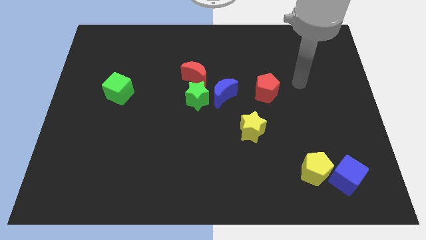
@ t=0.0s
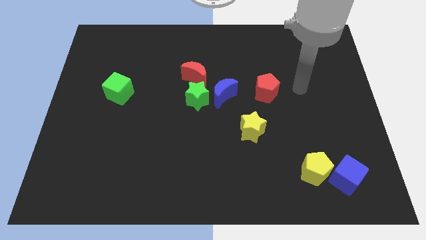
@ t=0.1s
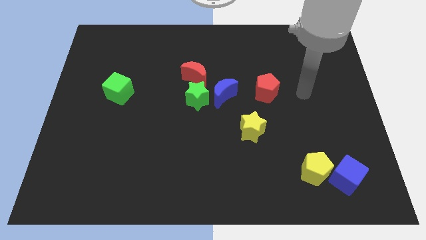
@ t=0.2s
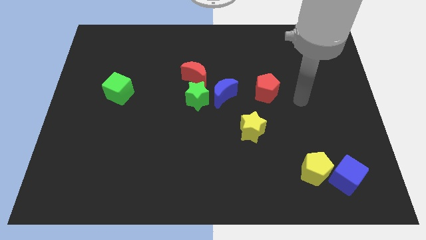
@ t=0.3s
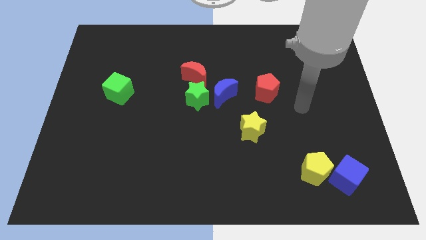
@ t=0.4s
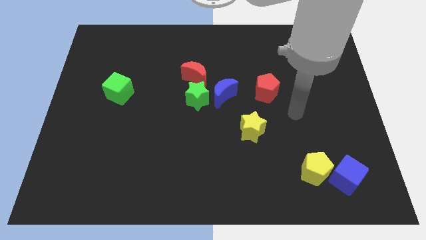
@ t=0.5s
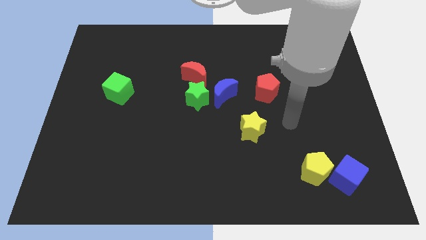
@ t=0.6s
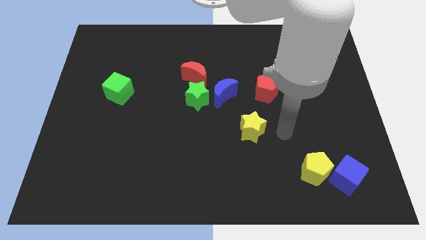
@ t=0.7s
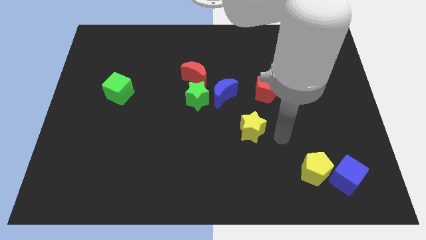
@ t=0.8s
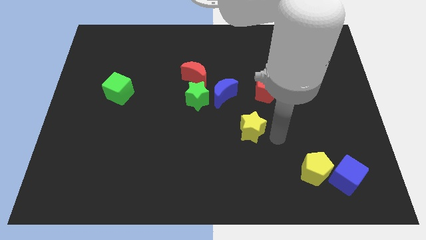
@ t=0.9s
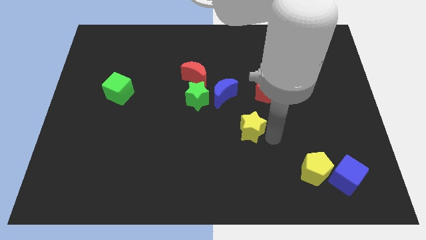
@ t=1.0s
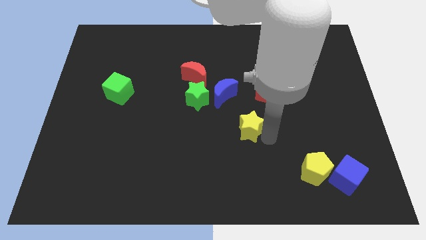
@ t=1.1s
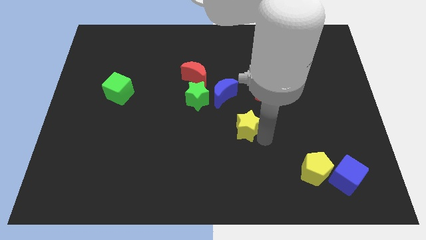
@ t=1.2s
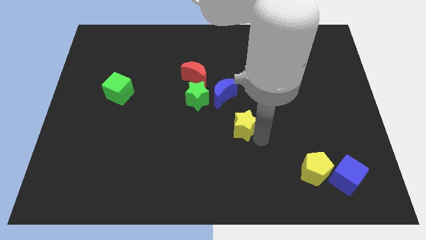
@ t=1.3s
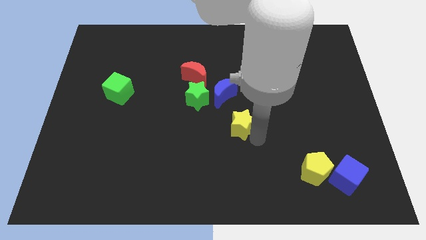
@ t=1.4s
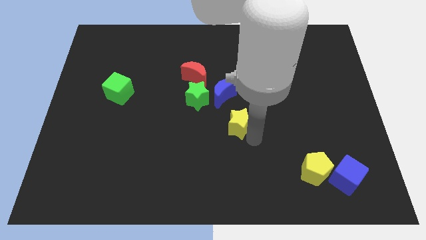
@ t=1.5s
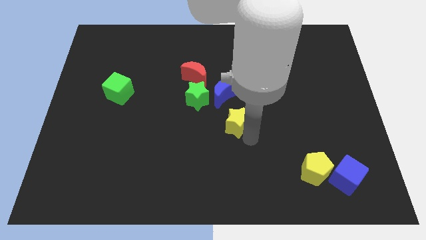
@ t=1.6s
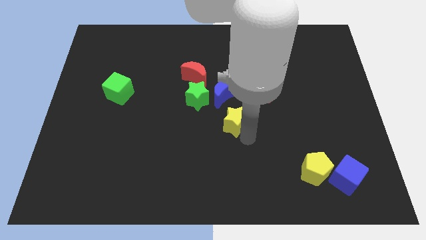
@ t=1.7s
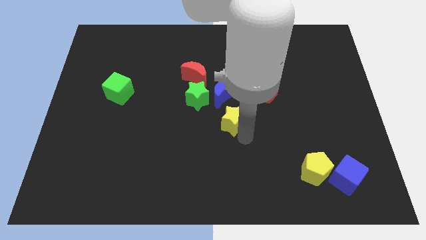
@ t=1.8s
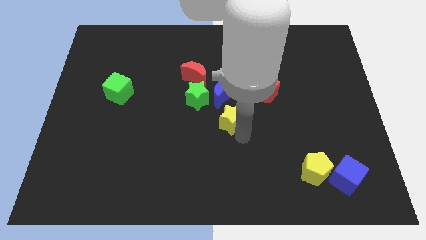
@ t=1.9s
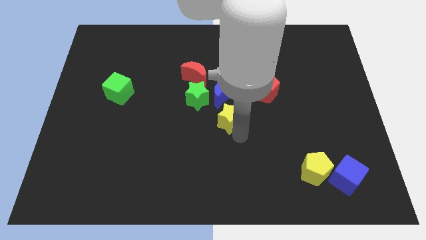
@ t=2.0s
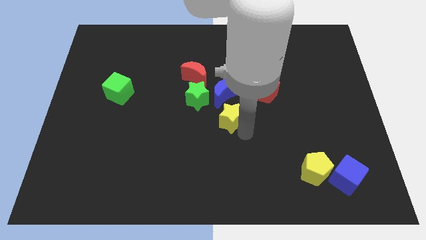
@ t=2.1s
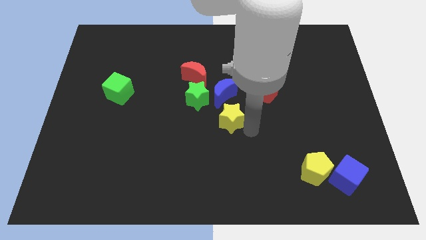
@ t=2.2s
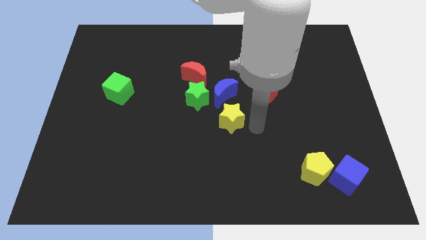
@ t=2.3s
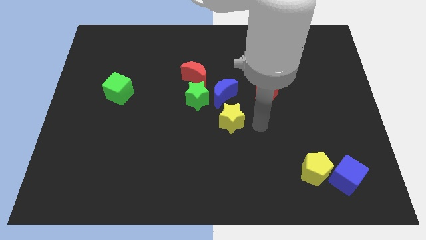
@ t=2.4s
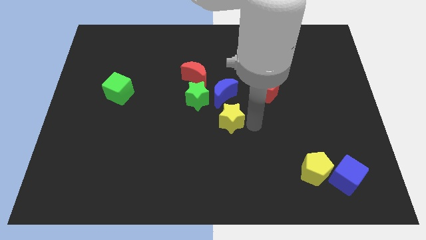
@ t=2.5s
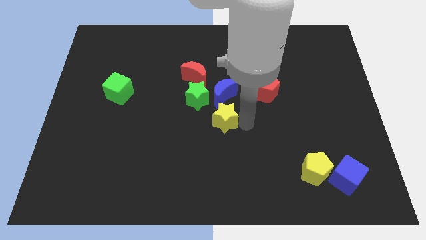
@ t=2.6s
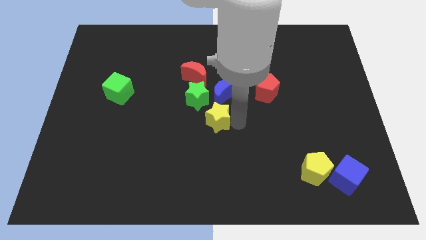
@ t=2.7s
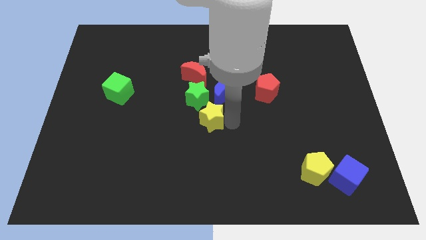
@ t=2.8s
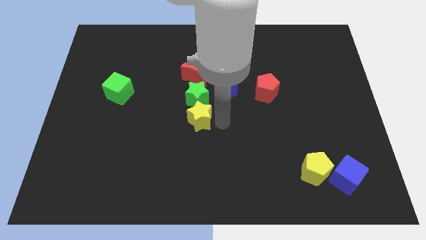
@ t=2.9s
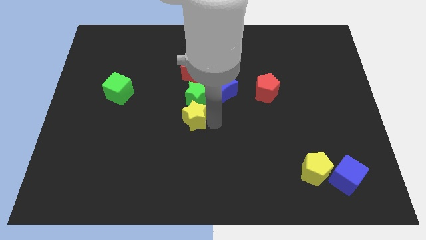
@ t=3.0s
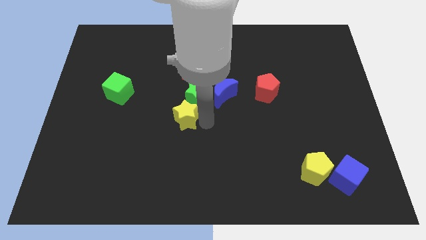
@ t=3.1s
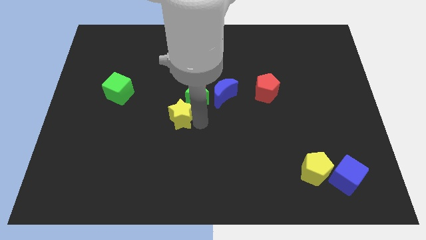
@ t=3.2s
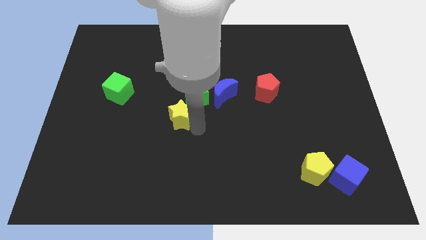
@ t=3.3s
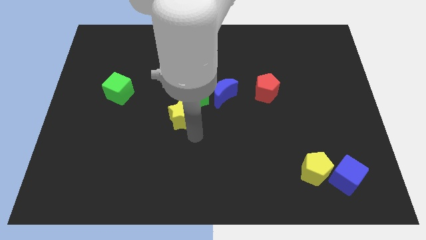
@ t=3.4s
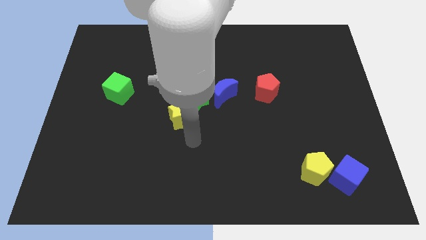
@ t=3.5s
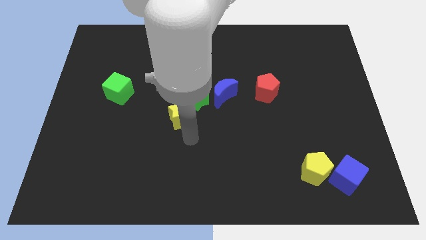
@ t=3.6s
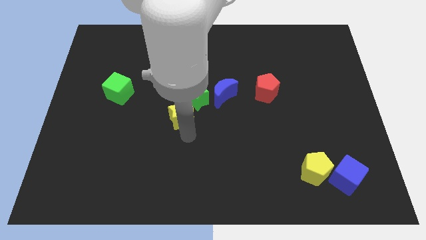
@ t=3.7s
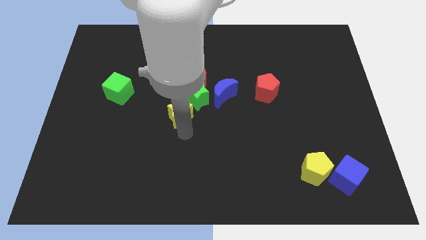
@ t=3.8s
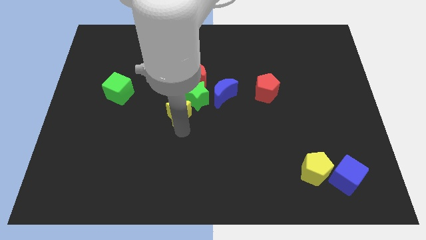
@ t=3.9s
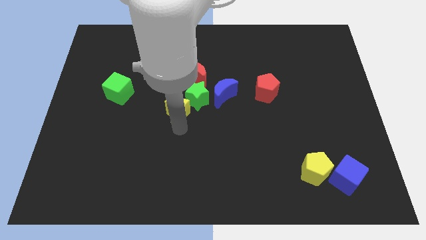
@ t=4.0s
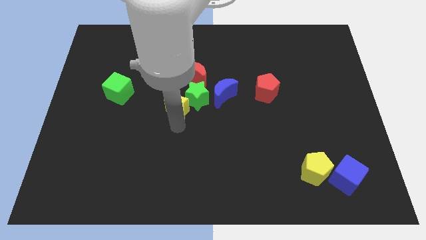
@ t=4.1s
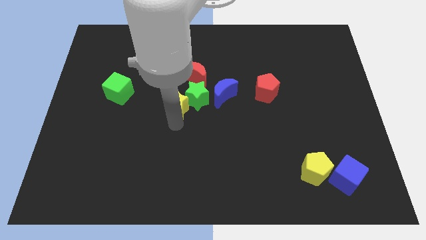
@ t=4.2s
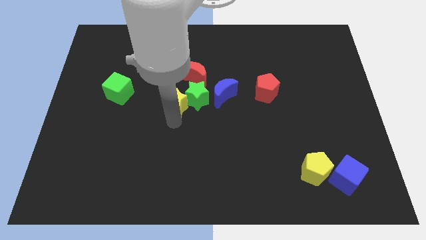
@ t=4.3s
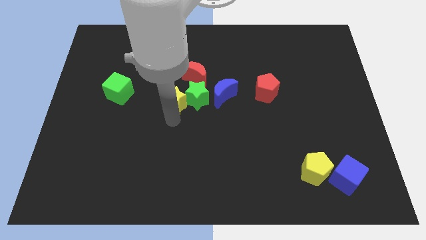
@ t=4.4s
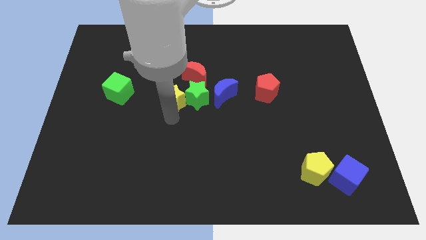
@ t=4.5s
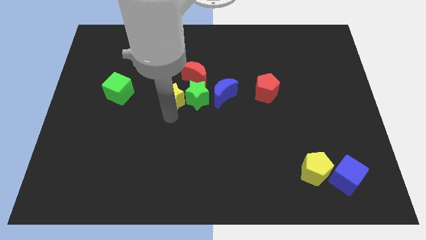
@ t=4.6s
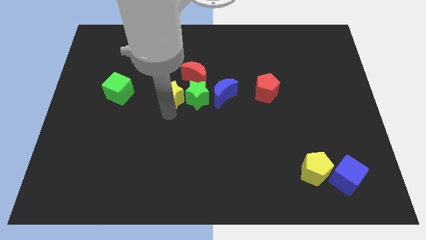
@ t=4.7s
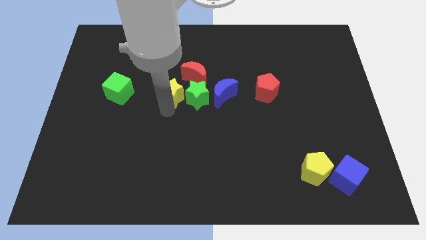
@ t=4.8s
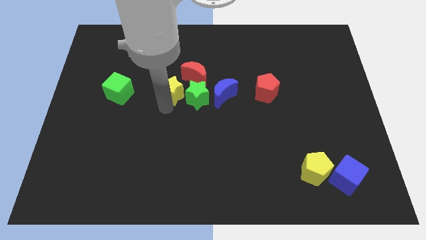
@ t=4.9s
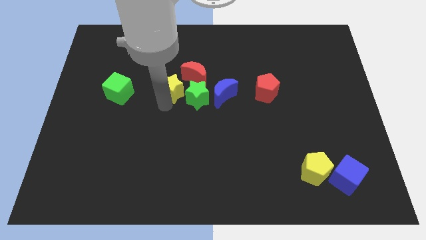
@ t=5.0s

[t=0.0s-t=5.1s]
push the yellow star left of the red moon

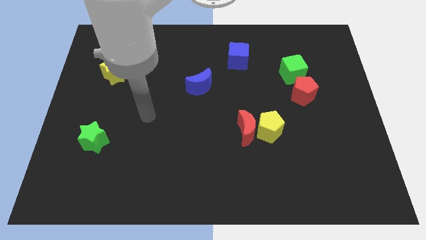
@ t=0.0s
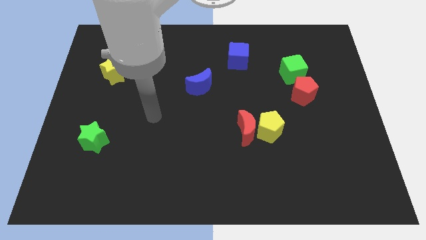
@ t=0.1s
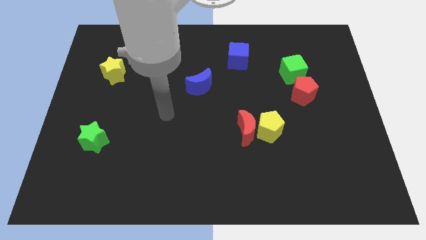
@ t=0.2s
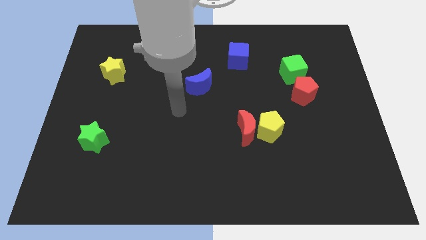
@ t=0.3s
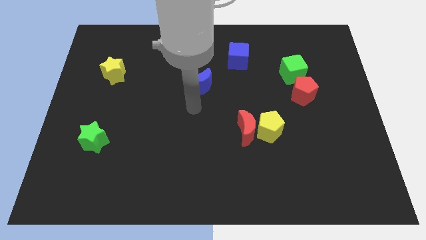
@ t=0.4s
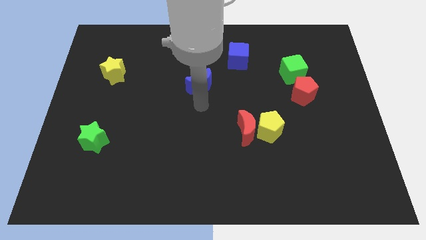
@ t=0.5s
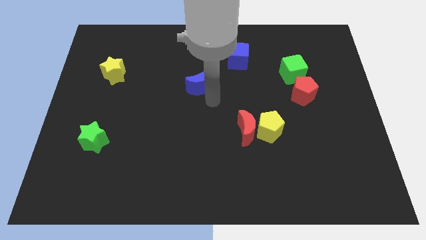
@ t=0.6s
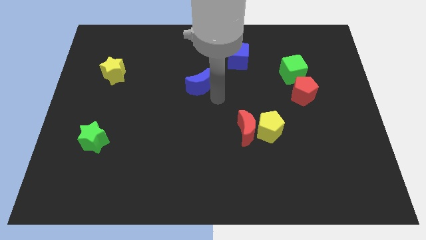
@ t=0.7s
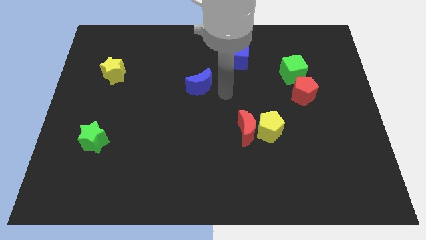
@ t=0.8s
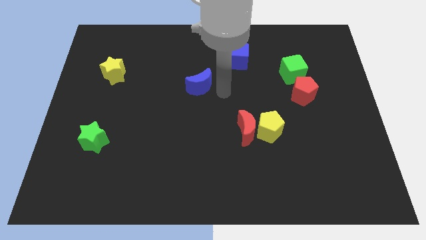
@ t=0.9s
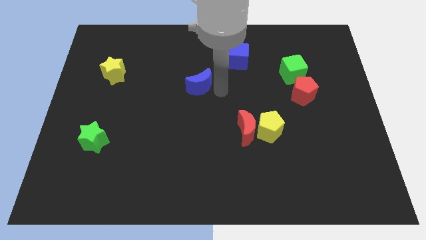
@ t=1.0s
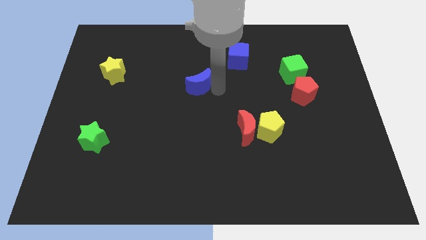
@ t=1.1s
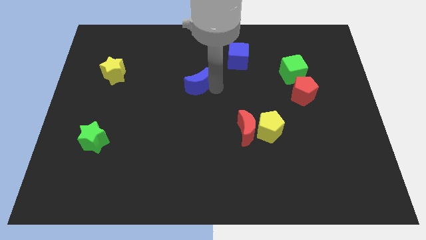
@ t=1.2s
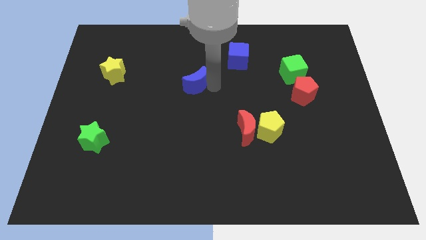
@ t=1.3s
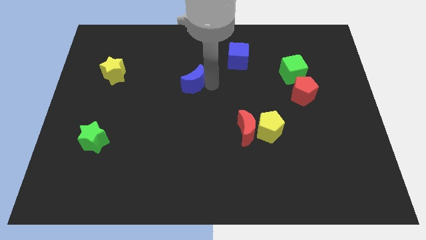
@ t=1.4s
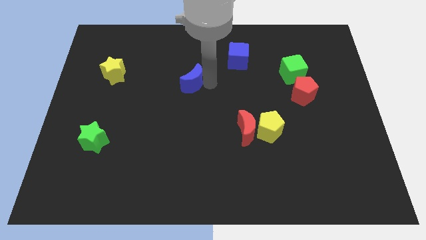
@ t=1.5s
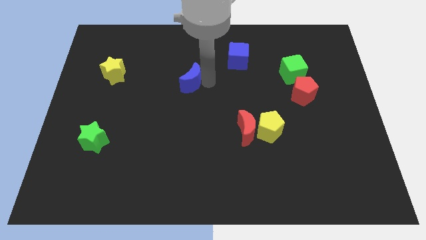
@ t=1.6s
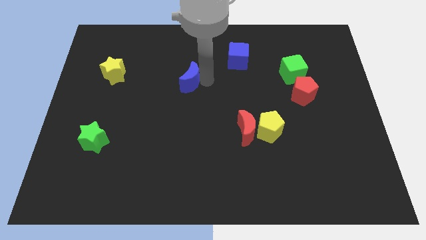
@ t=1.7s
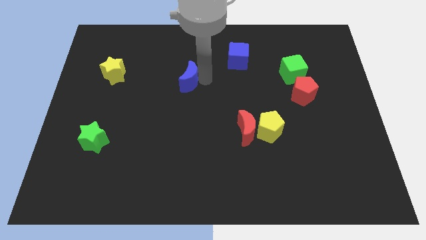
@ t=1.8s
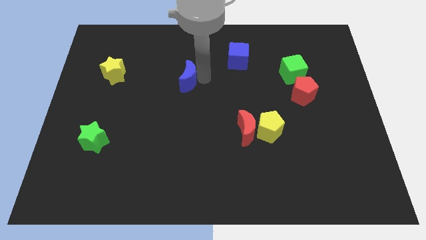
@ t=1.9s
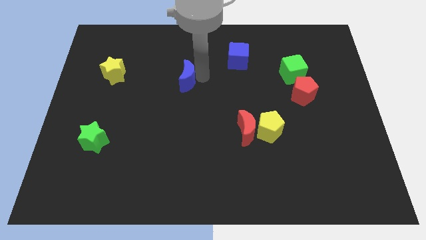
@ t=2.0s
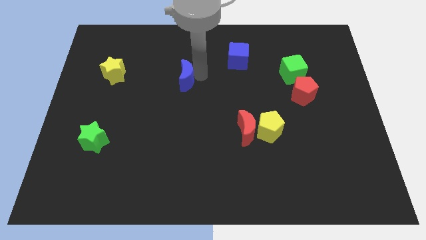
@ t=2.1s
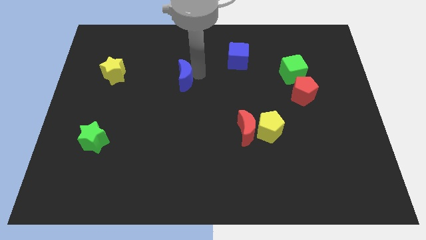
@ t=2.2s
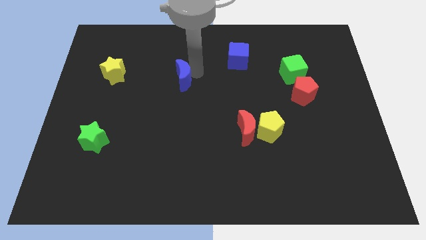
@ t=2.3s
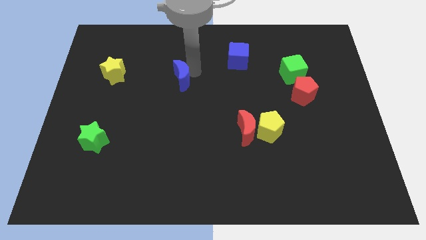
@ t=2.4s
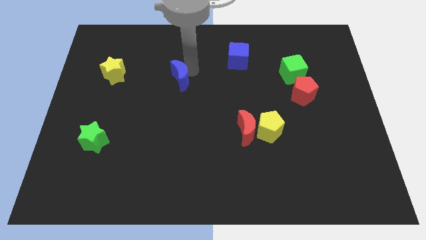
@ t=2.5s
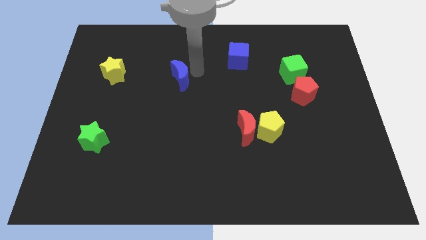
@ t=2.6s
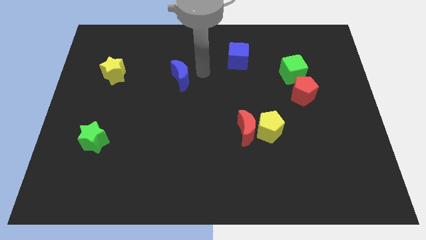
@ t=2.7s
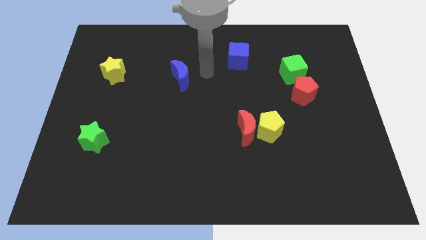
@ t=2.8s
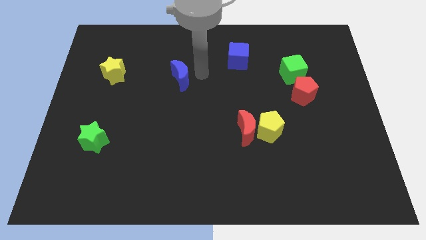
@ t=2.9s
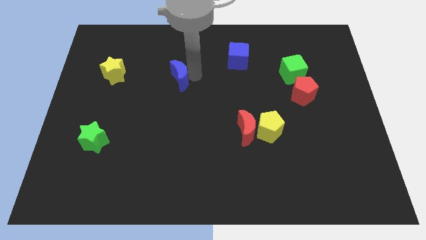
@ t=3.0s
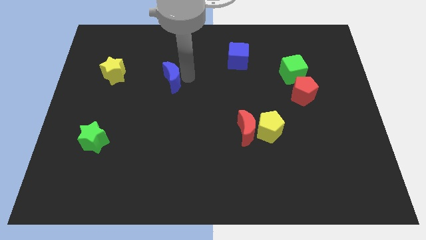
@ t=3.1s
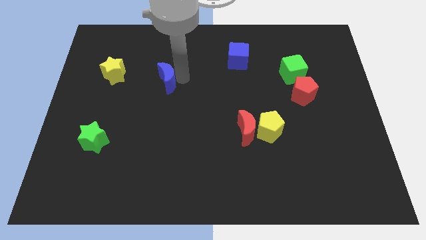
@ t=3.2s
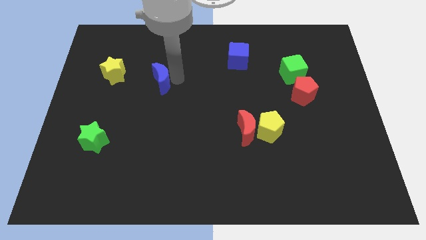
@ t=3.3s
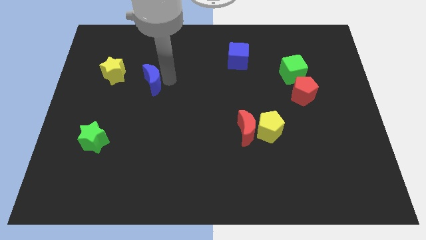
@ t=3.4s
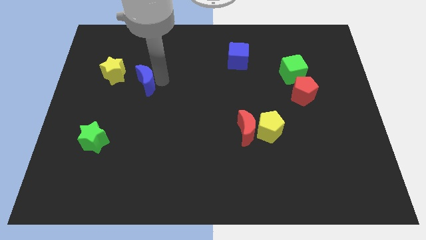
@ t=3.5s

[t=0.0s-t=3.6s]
slide the blue moon to the bottom right side of the yellow star
